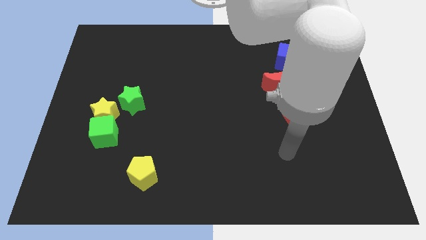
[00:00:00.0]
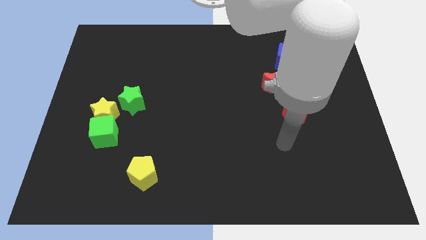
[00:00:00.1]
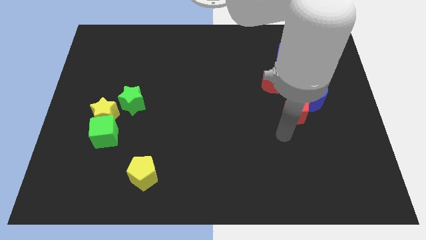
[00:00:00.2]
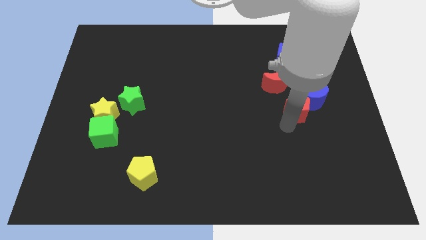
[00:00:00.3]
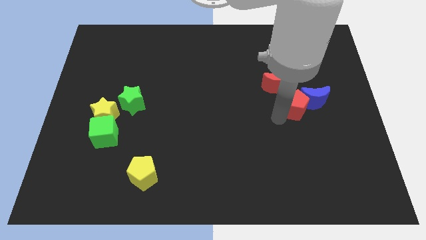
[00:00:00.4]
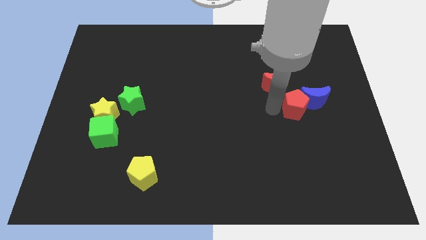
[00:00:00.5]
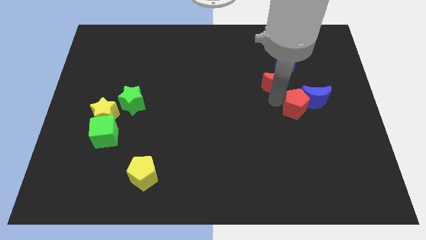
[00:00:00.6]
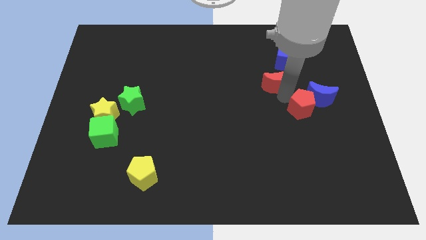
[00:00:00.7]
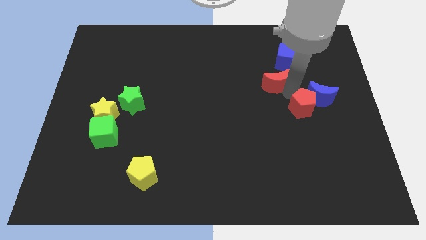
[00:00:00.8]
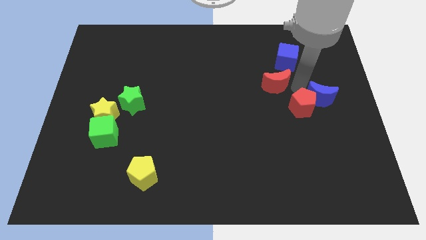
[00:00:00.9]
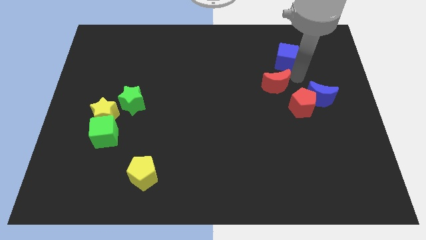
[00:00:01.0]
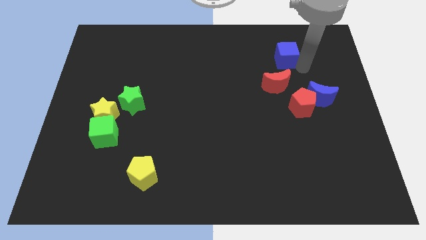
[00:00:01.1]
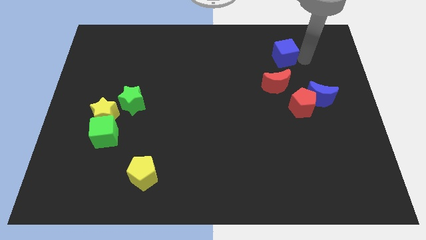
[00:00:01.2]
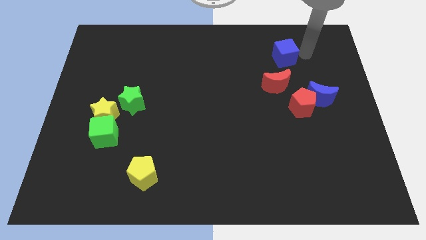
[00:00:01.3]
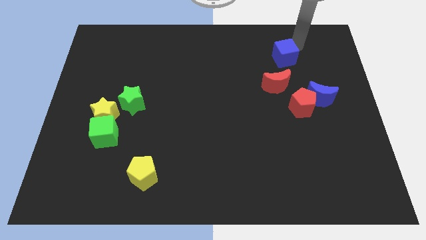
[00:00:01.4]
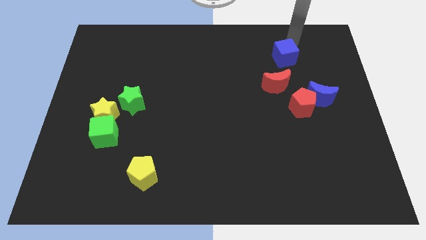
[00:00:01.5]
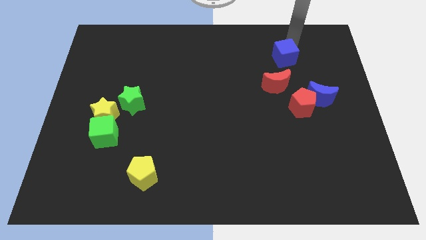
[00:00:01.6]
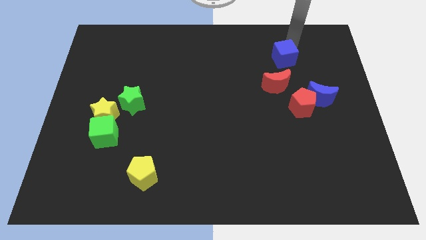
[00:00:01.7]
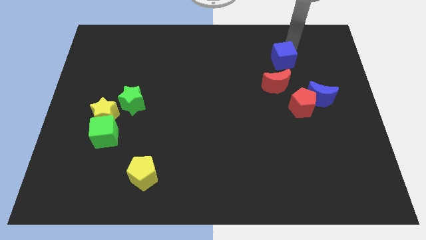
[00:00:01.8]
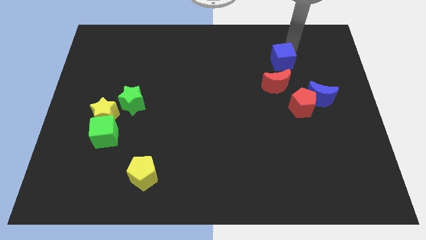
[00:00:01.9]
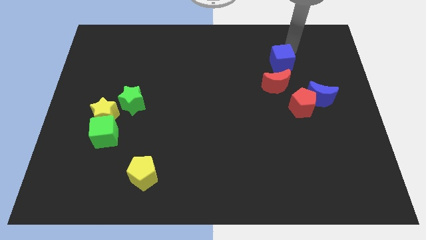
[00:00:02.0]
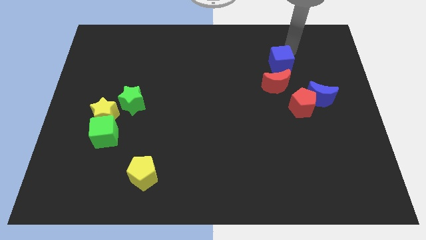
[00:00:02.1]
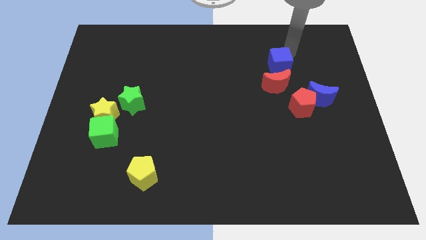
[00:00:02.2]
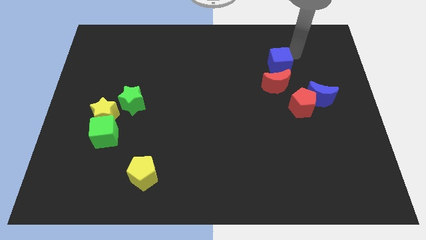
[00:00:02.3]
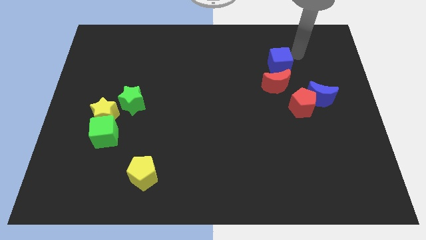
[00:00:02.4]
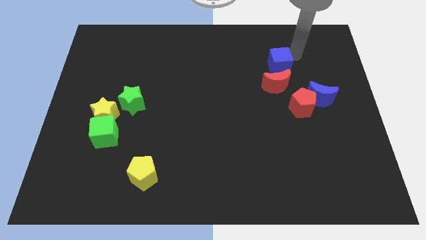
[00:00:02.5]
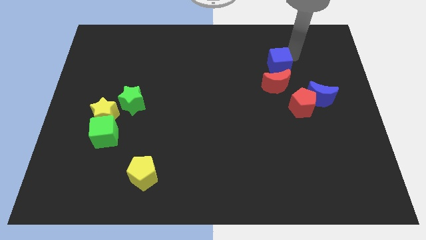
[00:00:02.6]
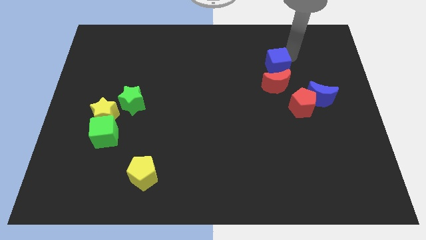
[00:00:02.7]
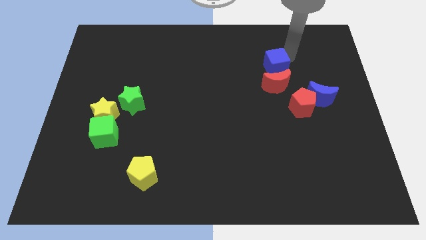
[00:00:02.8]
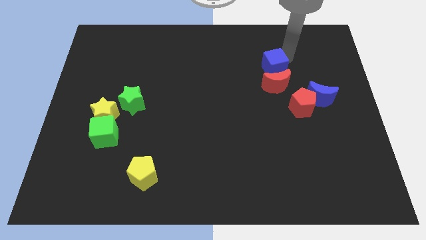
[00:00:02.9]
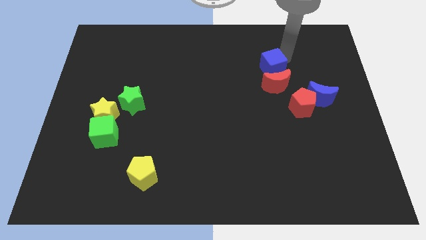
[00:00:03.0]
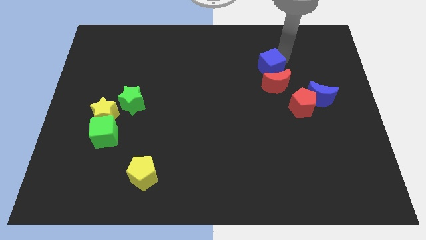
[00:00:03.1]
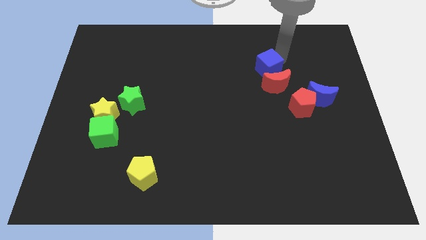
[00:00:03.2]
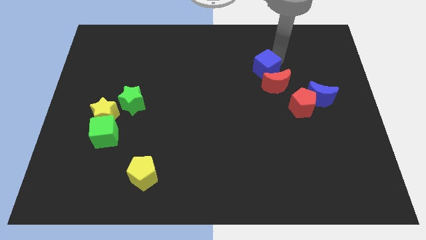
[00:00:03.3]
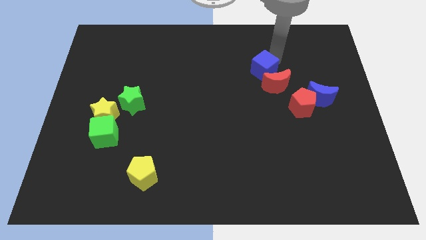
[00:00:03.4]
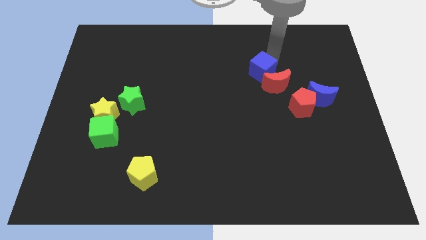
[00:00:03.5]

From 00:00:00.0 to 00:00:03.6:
slide the blue cube a bit downwards and then left

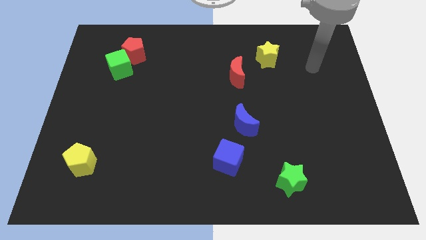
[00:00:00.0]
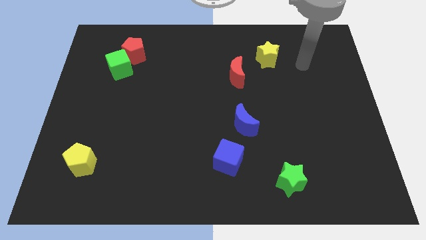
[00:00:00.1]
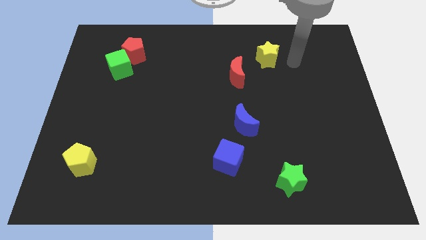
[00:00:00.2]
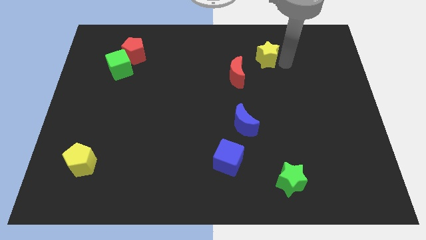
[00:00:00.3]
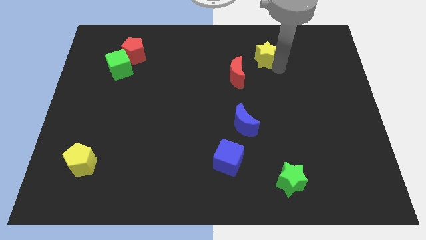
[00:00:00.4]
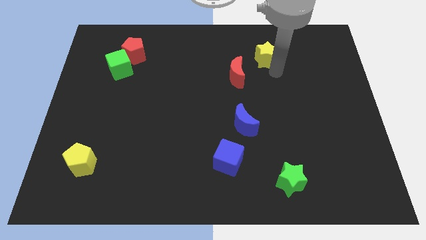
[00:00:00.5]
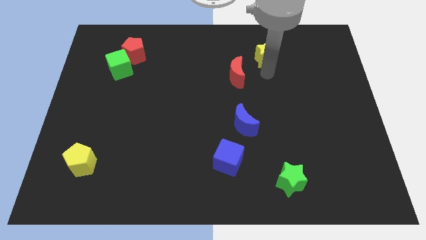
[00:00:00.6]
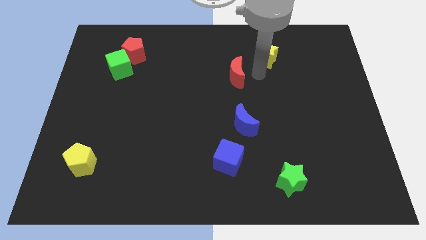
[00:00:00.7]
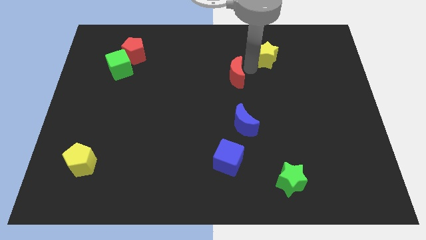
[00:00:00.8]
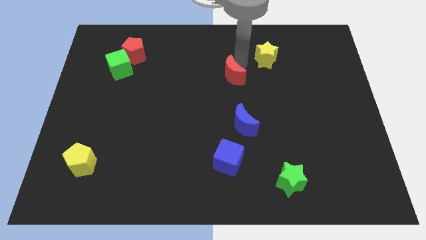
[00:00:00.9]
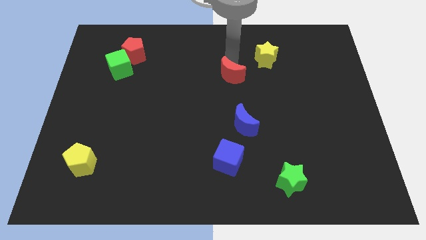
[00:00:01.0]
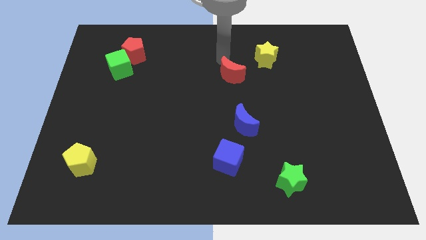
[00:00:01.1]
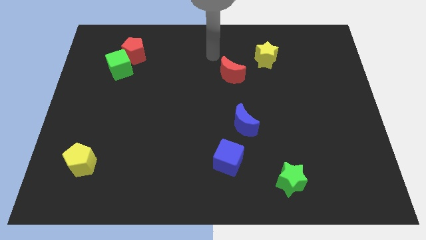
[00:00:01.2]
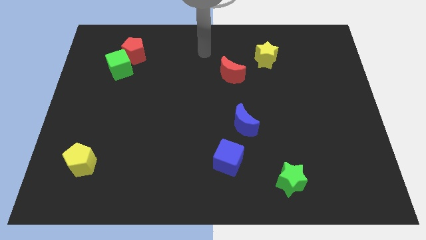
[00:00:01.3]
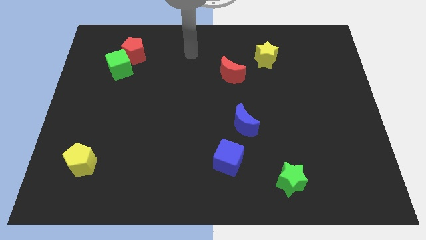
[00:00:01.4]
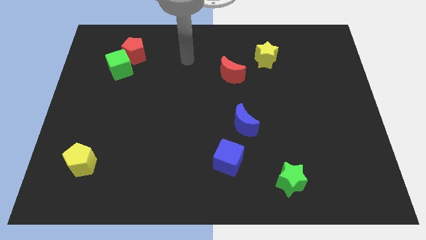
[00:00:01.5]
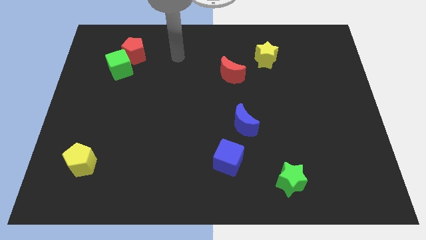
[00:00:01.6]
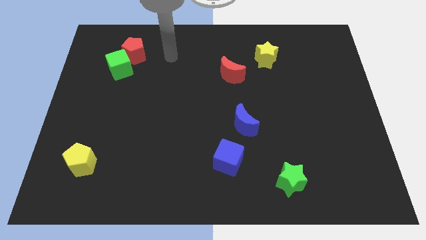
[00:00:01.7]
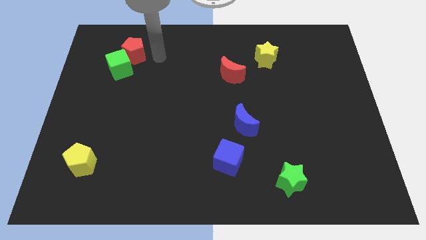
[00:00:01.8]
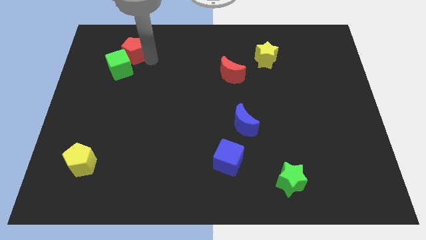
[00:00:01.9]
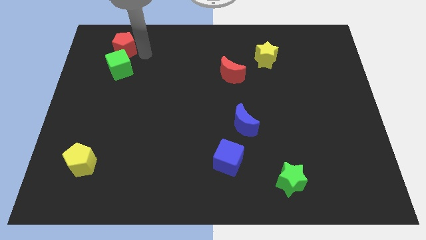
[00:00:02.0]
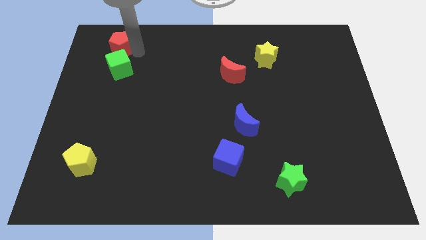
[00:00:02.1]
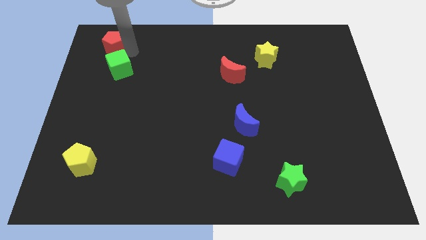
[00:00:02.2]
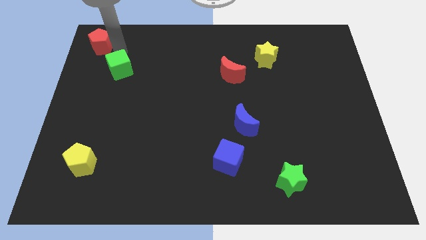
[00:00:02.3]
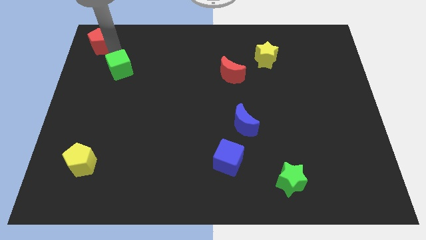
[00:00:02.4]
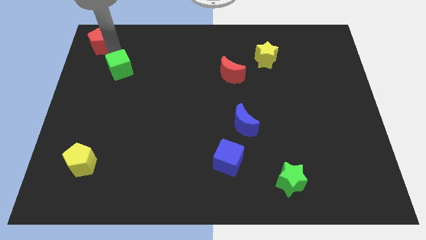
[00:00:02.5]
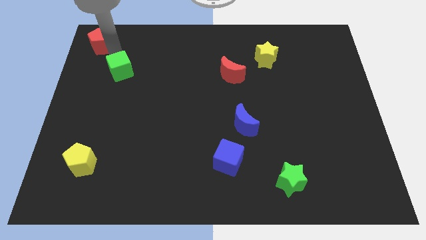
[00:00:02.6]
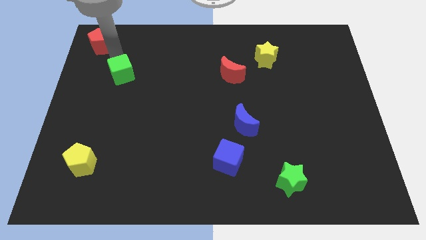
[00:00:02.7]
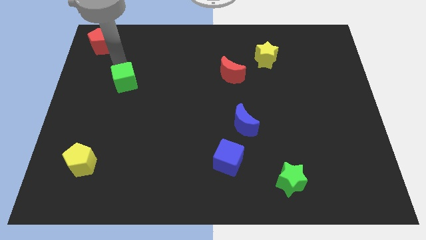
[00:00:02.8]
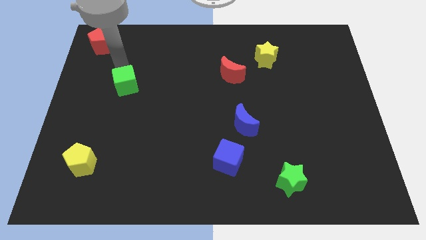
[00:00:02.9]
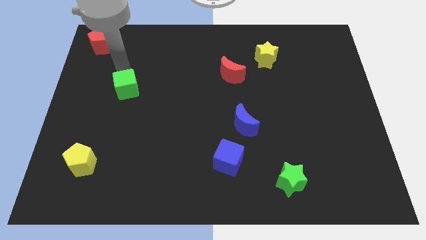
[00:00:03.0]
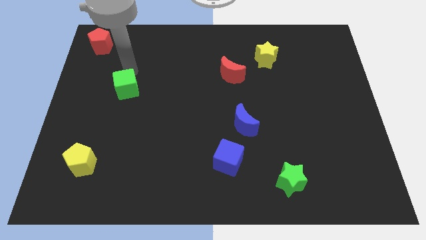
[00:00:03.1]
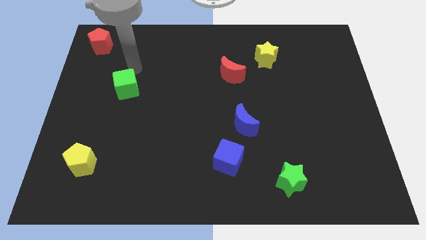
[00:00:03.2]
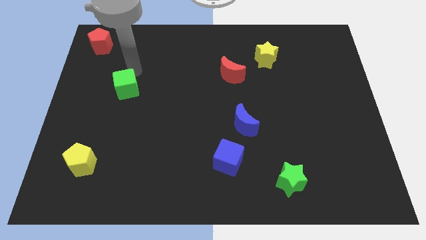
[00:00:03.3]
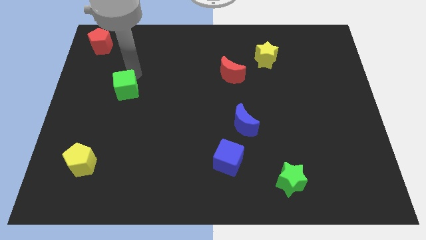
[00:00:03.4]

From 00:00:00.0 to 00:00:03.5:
slide the green cube a little bit down

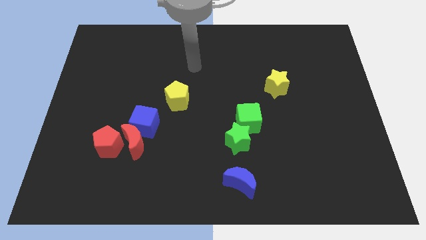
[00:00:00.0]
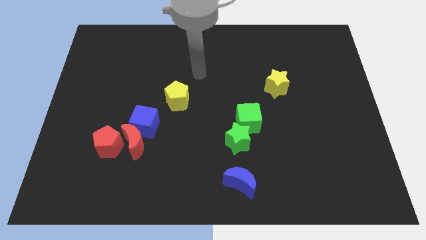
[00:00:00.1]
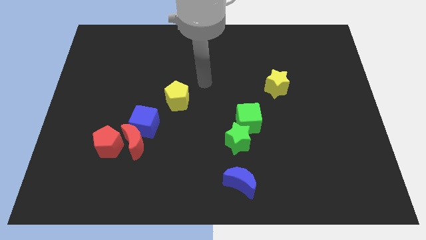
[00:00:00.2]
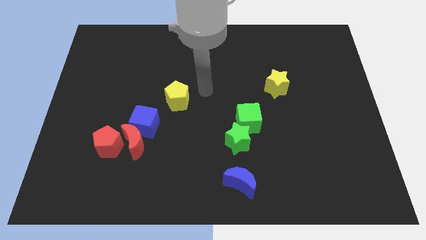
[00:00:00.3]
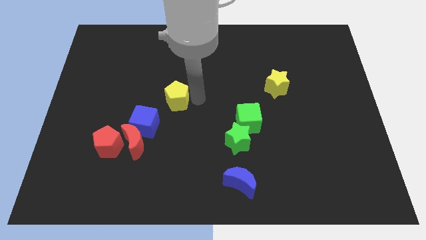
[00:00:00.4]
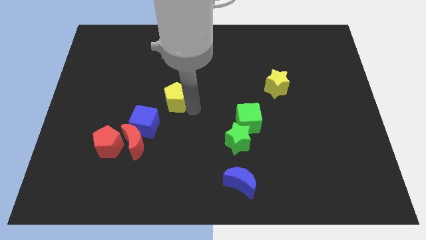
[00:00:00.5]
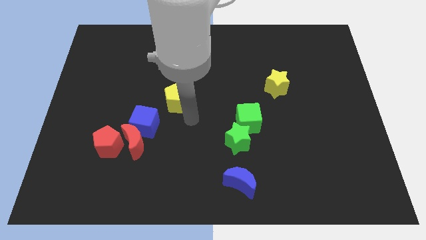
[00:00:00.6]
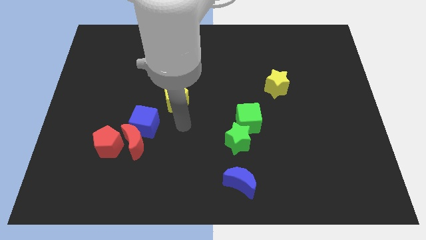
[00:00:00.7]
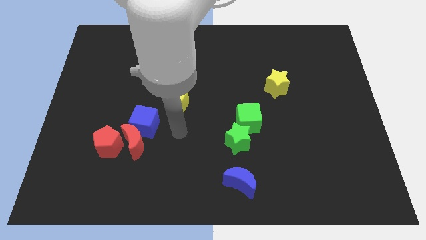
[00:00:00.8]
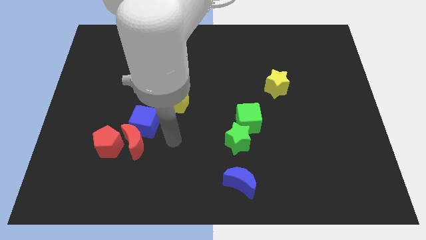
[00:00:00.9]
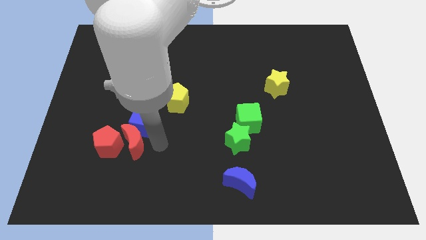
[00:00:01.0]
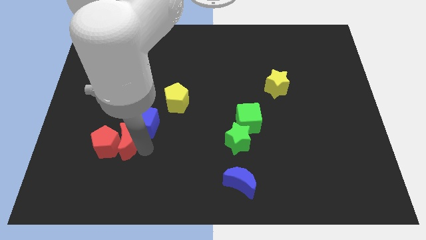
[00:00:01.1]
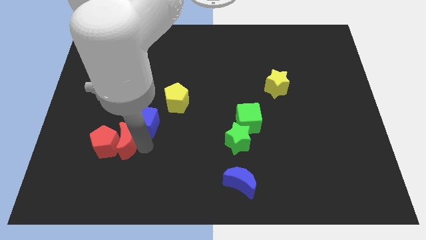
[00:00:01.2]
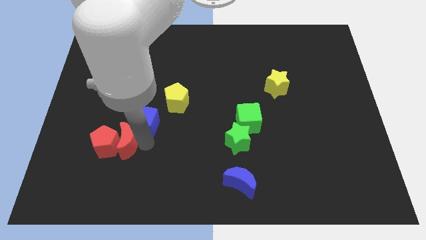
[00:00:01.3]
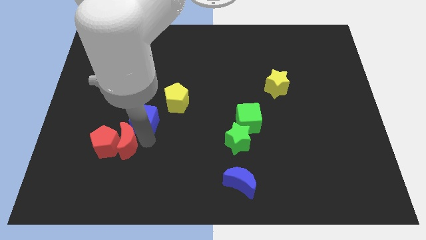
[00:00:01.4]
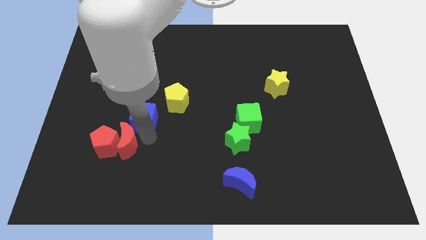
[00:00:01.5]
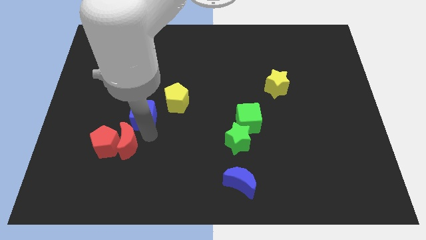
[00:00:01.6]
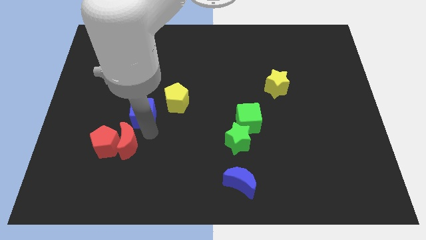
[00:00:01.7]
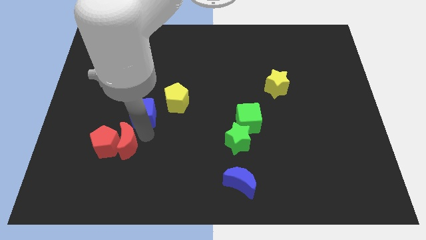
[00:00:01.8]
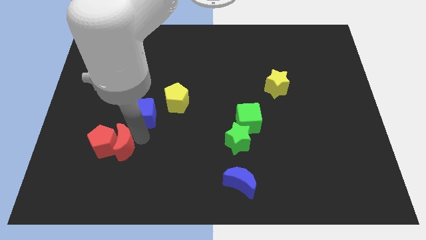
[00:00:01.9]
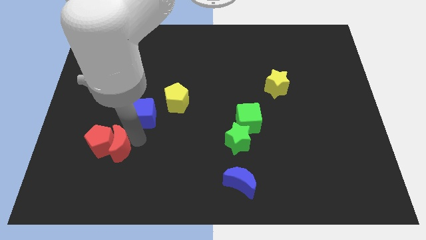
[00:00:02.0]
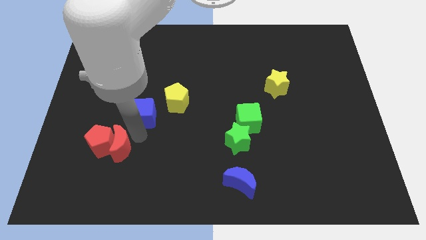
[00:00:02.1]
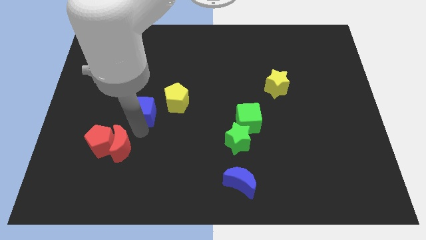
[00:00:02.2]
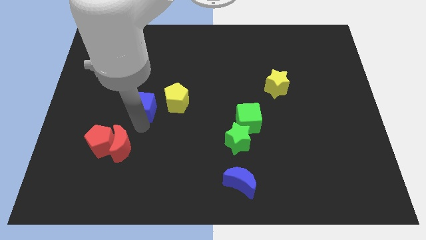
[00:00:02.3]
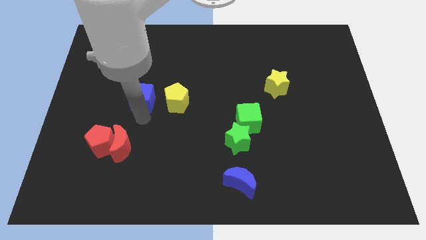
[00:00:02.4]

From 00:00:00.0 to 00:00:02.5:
move the blue cube slightly up
